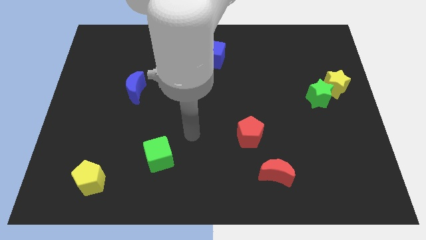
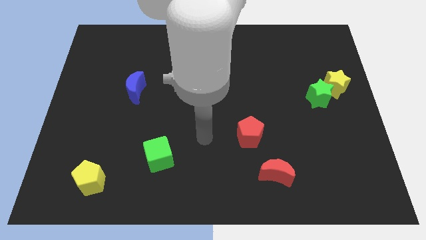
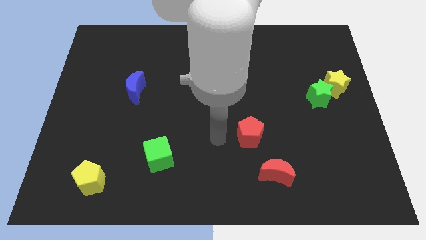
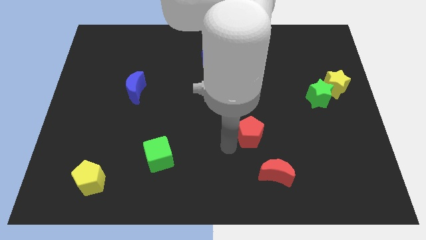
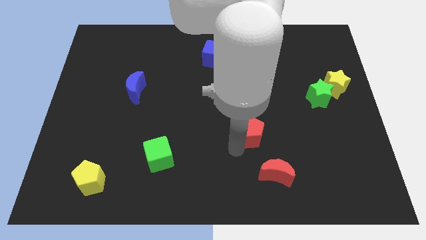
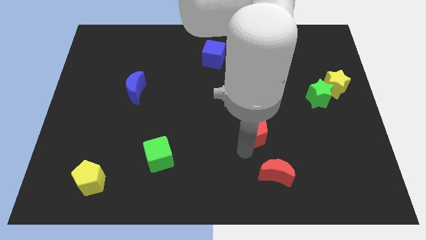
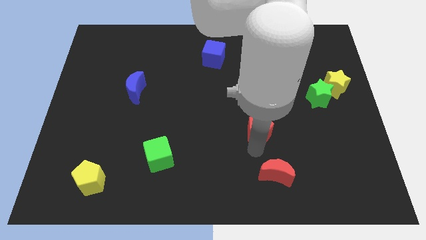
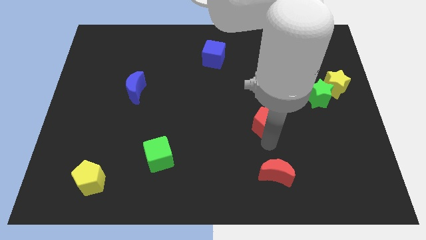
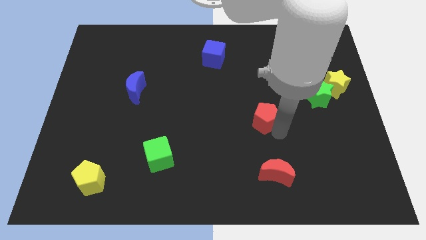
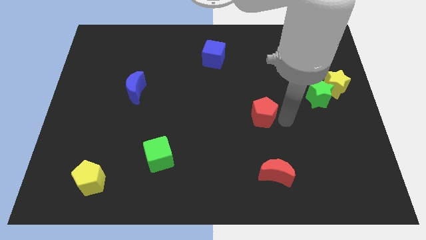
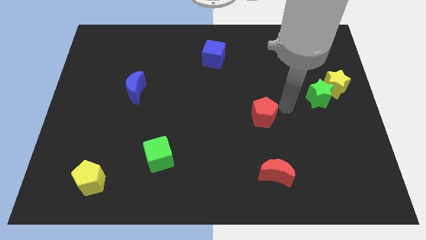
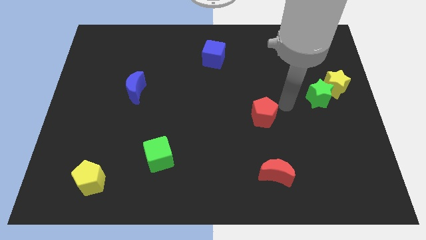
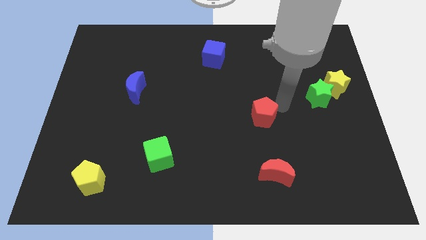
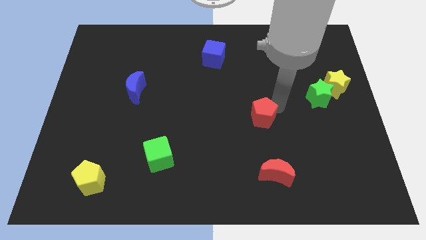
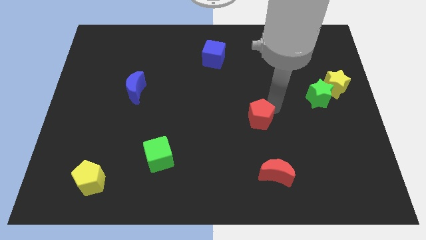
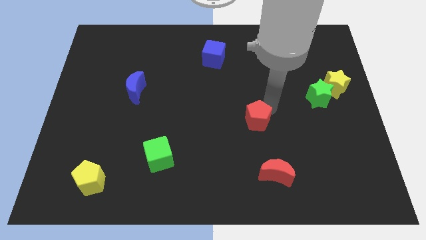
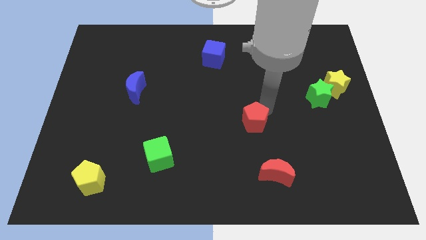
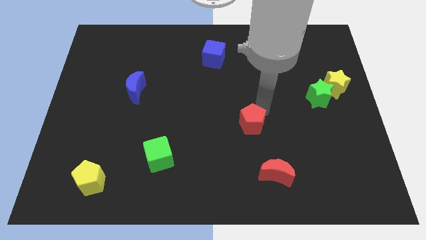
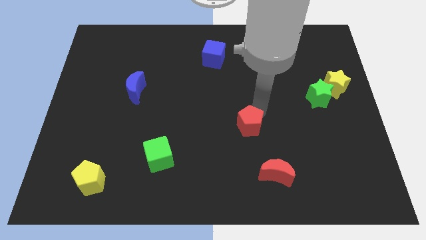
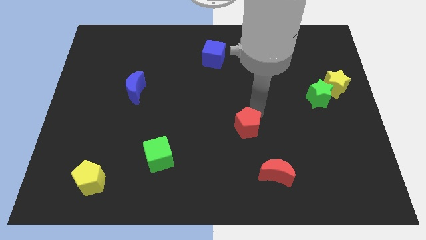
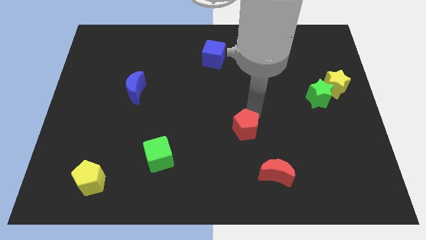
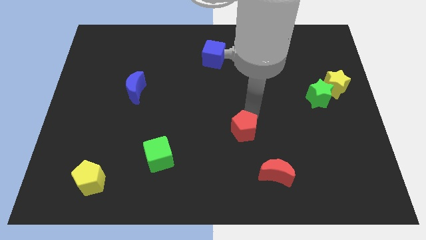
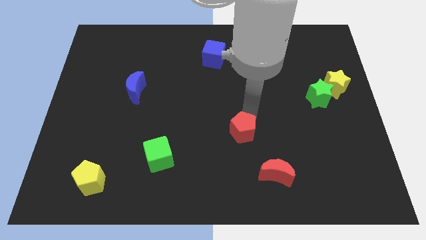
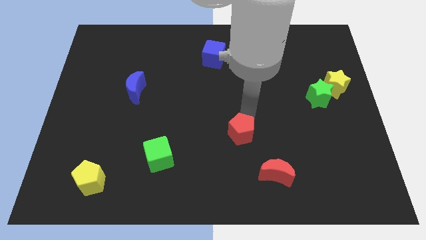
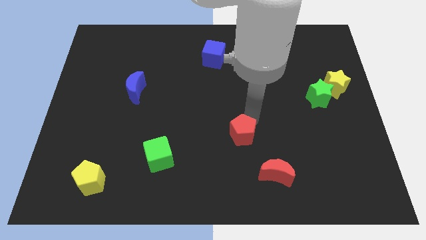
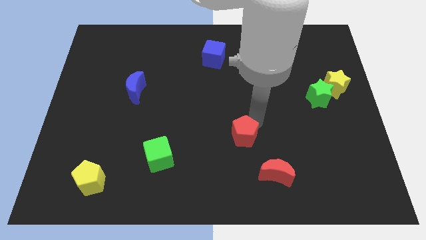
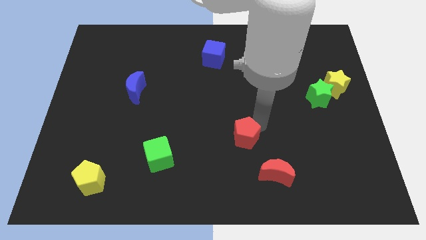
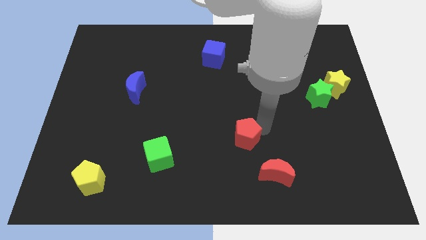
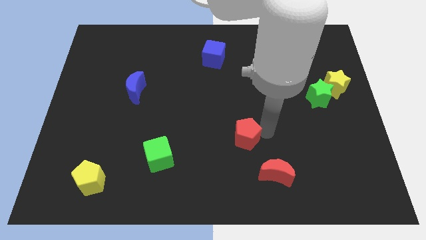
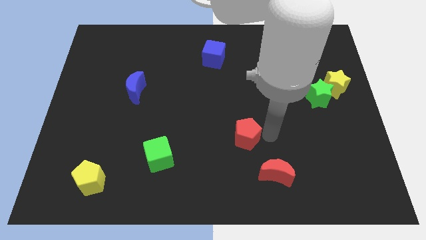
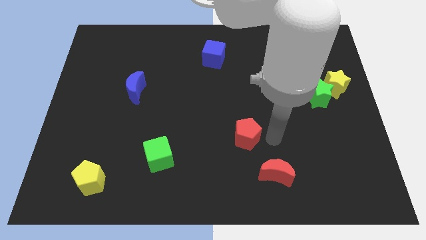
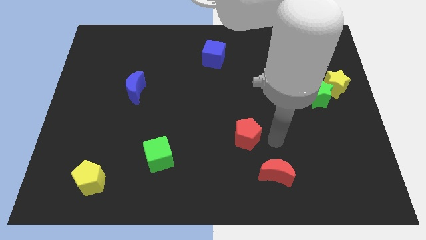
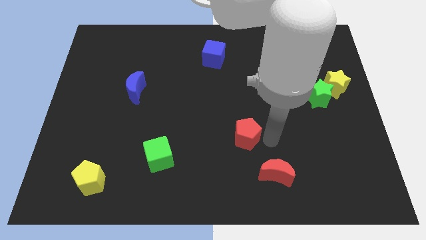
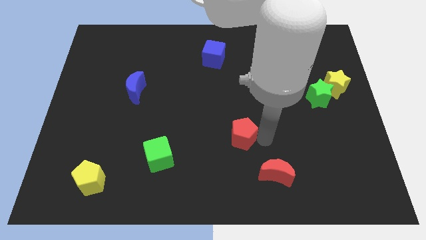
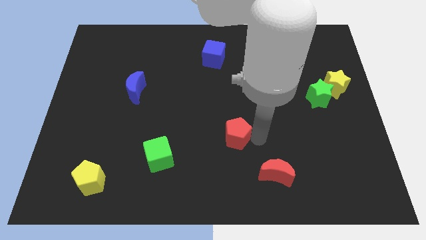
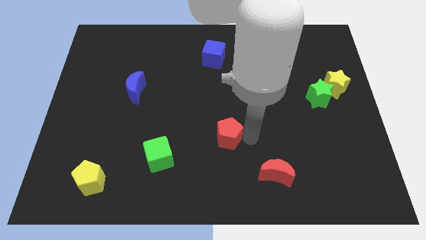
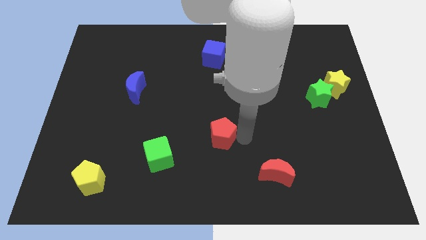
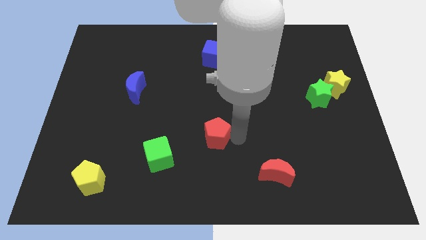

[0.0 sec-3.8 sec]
slightly push the red pentagon to the left

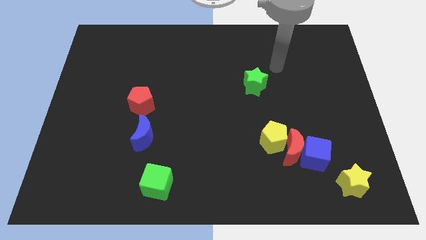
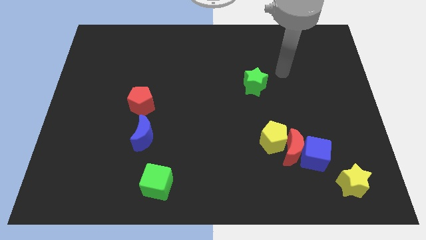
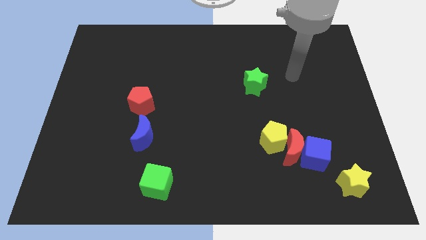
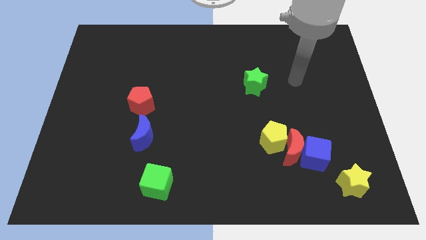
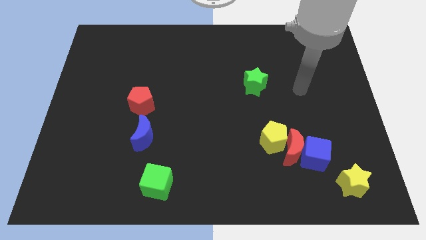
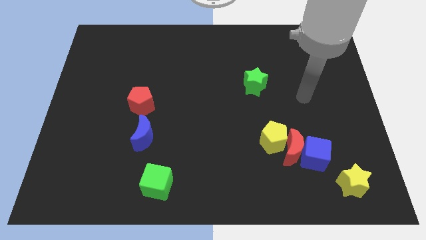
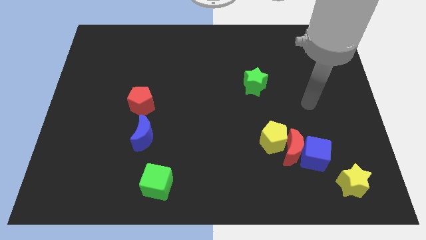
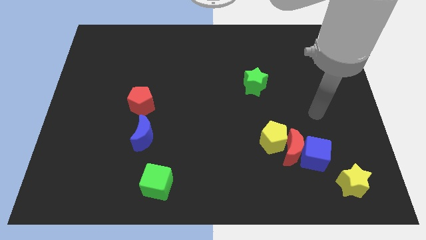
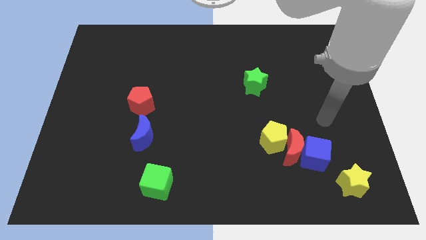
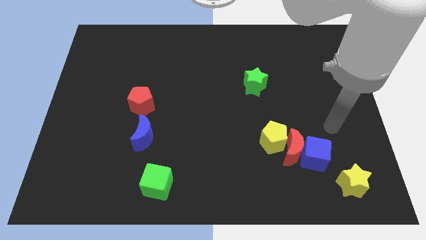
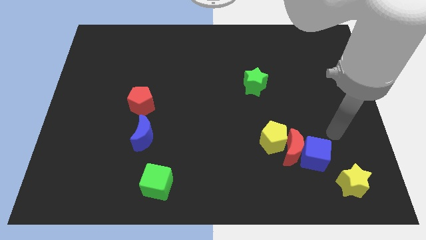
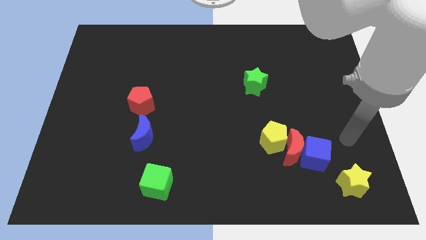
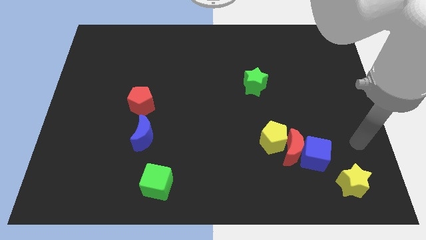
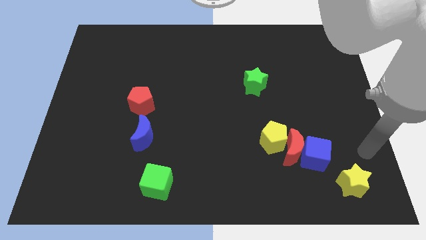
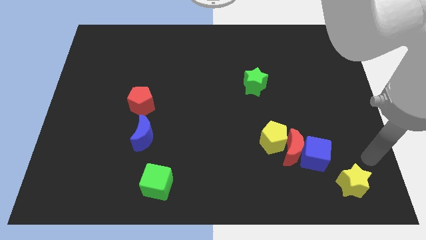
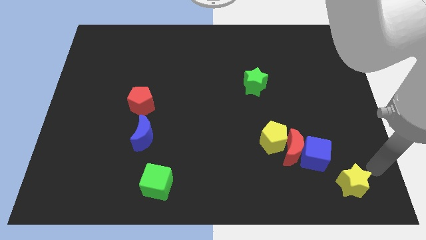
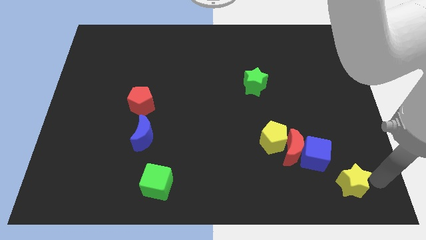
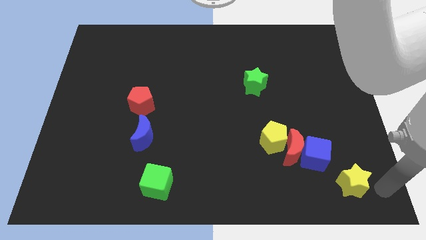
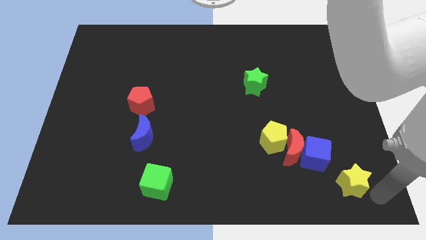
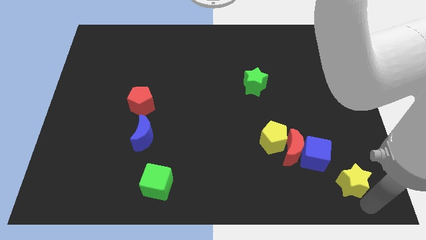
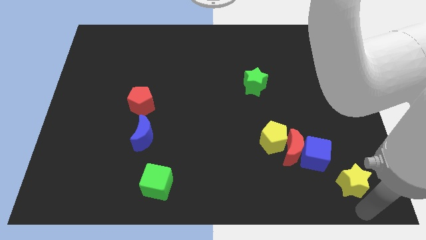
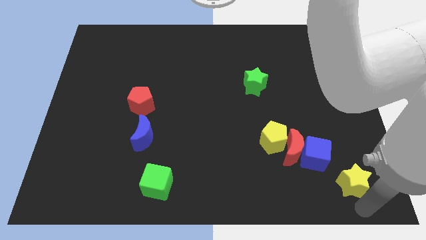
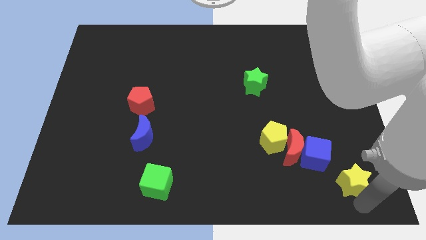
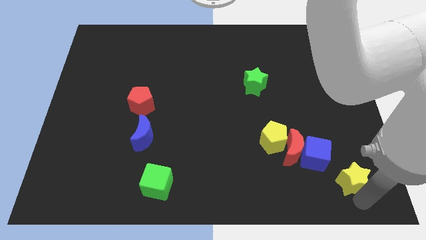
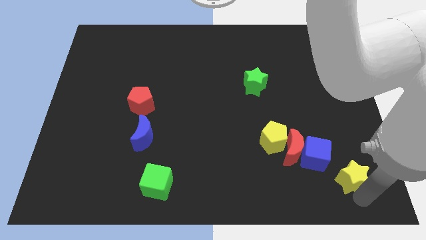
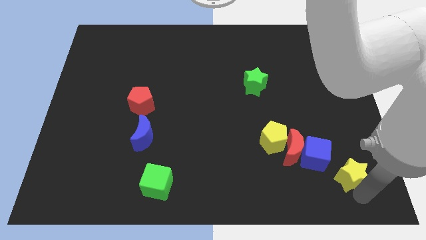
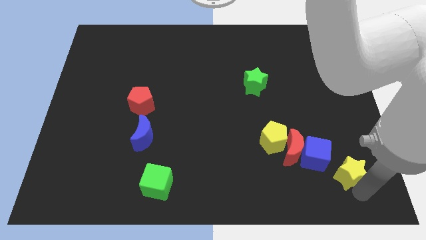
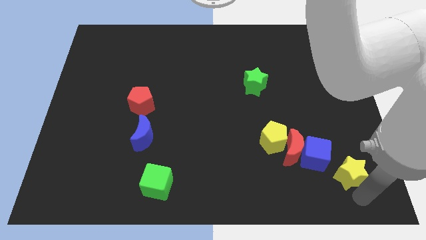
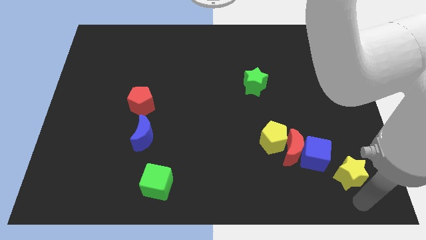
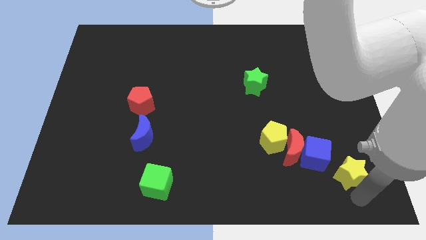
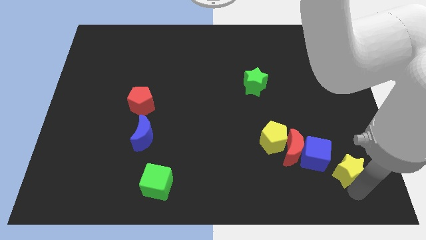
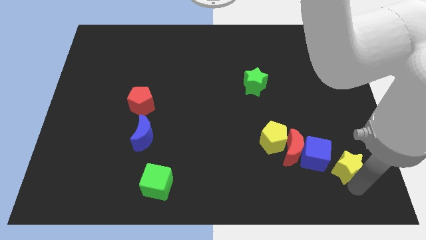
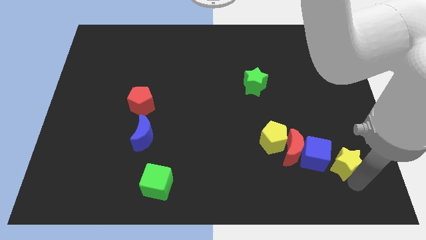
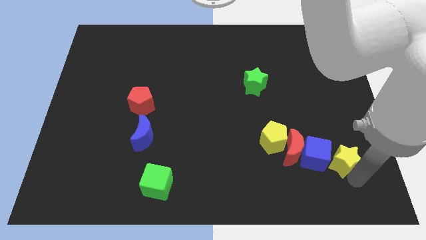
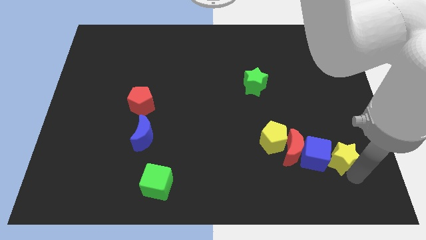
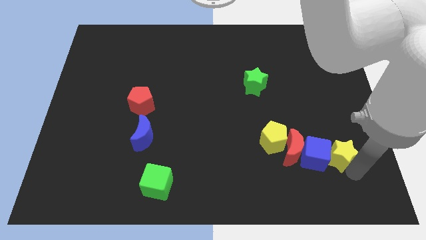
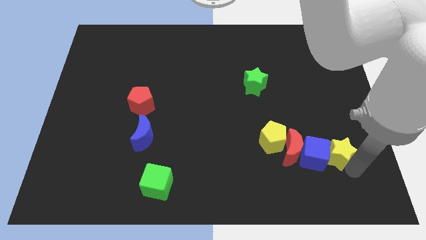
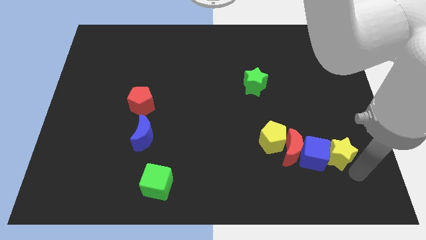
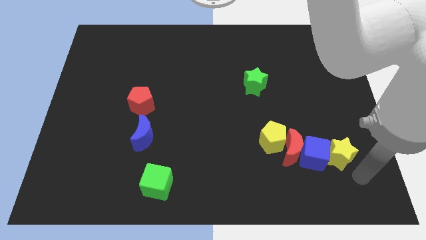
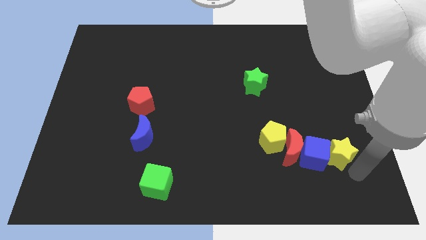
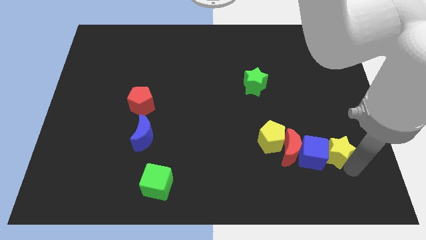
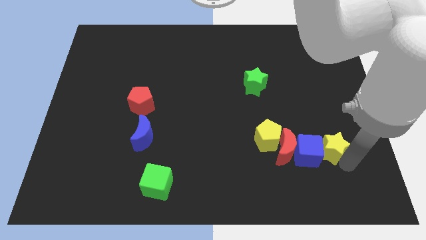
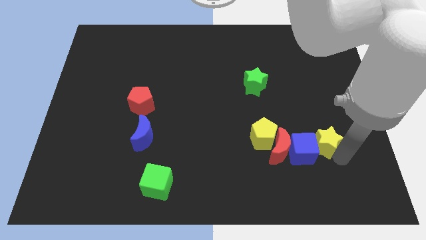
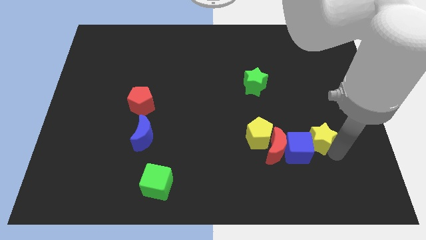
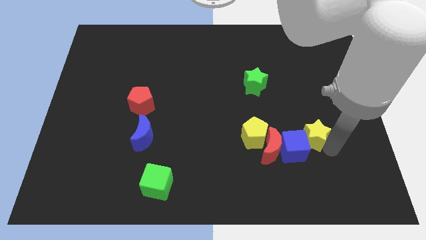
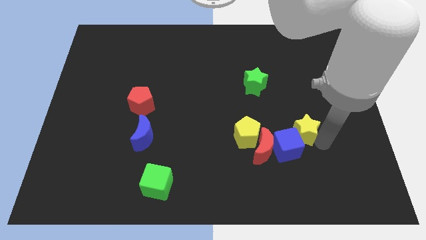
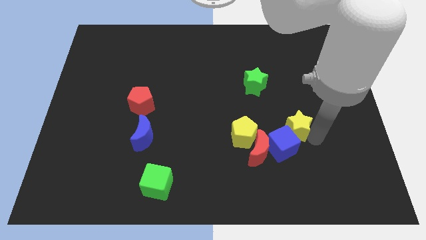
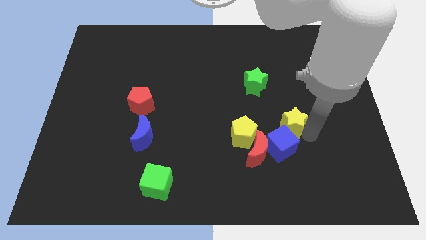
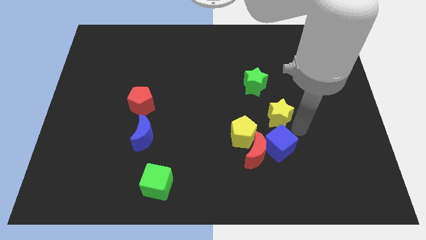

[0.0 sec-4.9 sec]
slide the yellow star upwards and left
